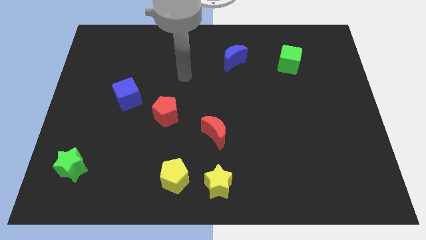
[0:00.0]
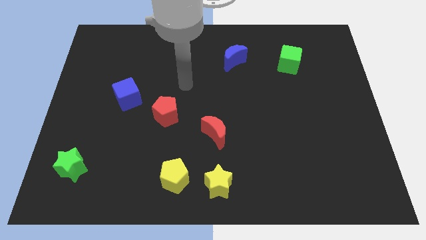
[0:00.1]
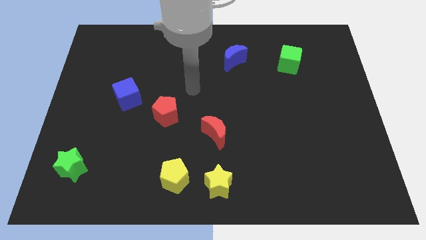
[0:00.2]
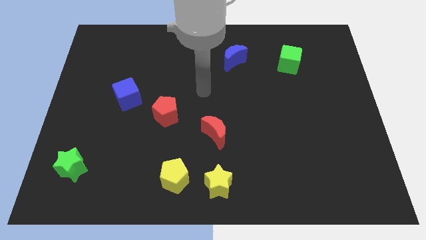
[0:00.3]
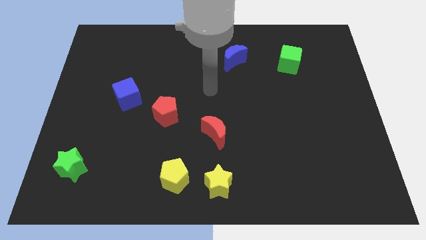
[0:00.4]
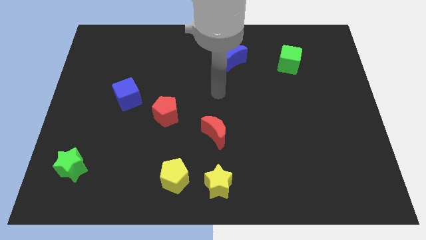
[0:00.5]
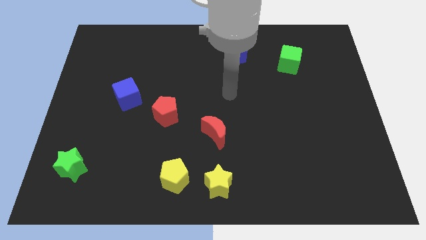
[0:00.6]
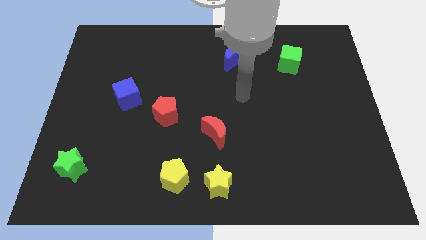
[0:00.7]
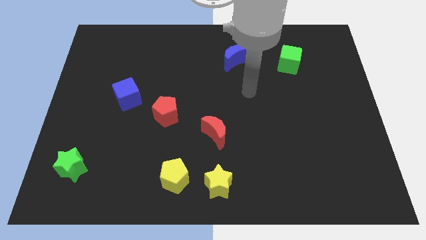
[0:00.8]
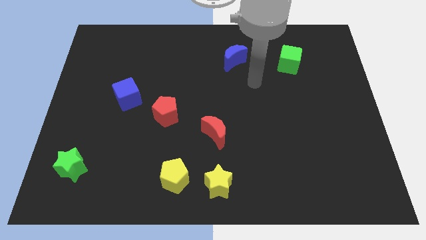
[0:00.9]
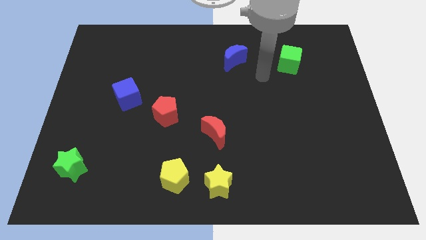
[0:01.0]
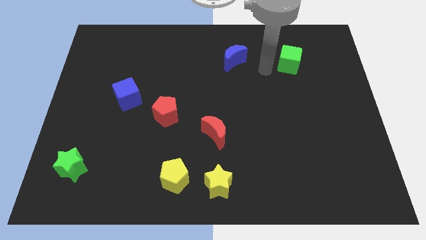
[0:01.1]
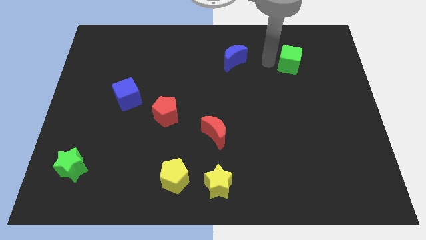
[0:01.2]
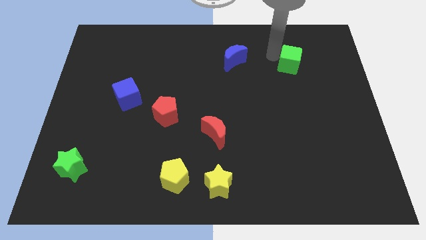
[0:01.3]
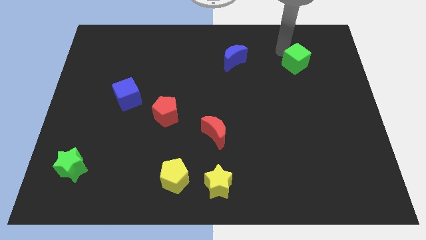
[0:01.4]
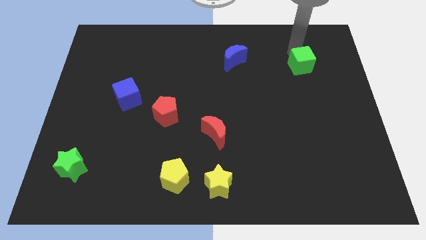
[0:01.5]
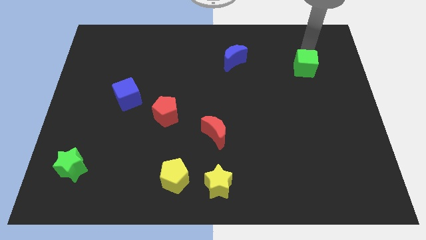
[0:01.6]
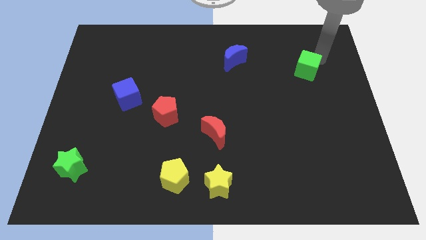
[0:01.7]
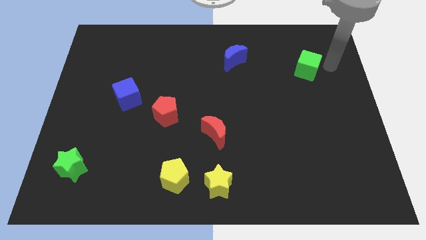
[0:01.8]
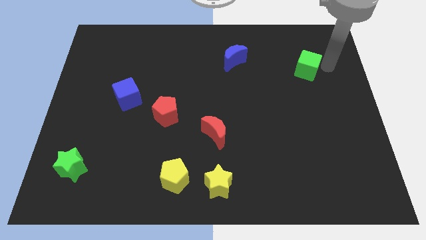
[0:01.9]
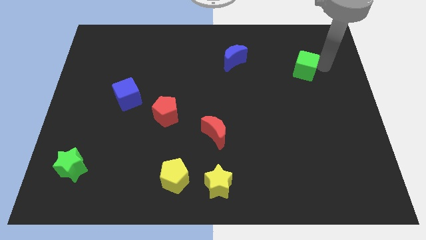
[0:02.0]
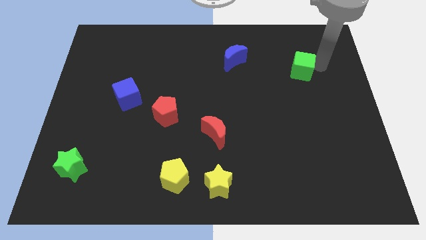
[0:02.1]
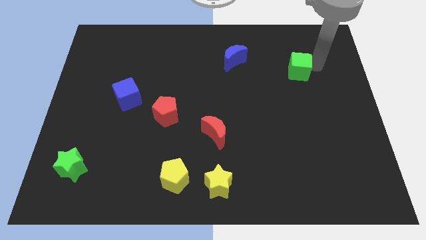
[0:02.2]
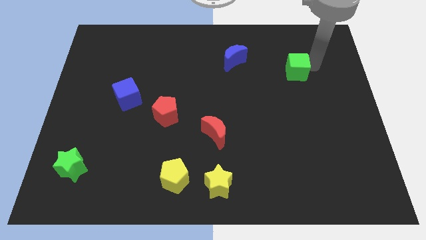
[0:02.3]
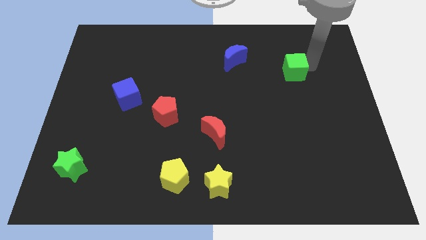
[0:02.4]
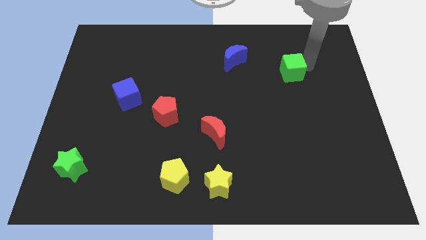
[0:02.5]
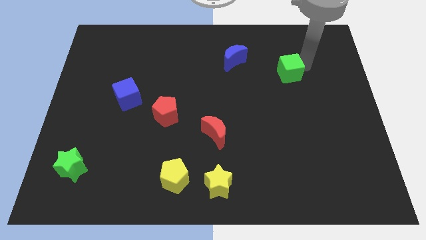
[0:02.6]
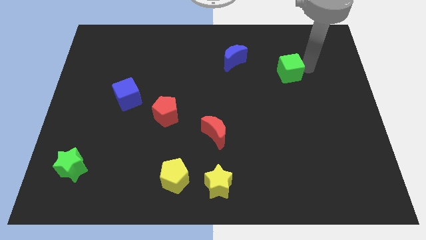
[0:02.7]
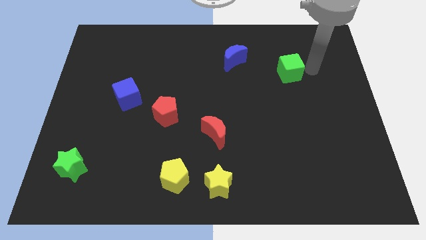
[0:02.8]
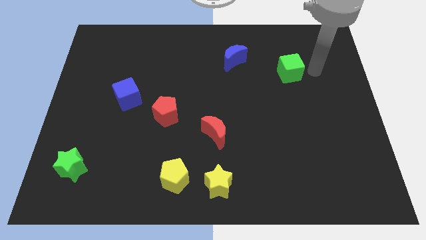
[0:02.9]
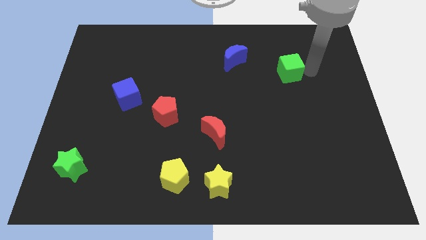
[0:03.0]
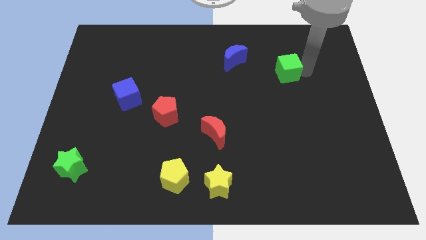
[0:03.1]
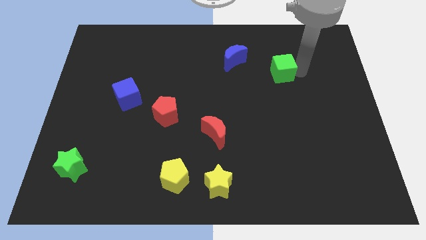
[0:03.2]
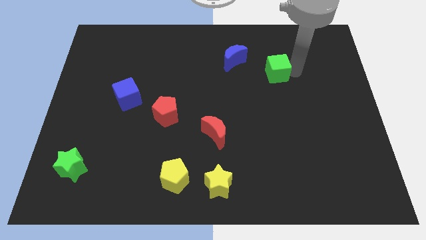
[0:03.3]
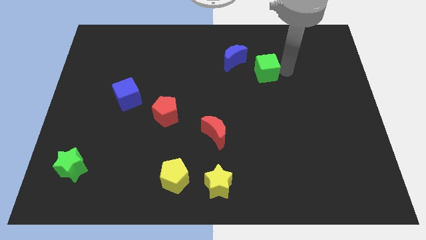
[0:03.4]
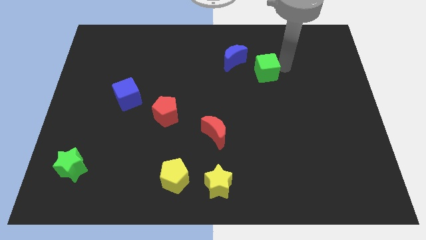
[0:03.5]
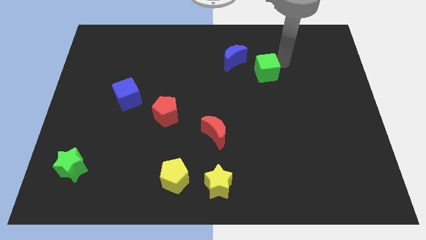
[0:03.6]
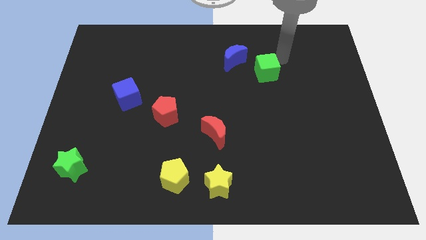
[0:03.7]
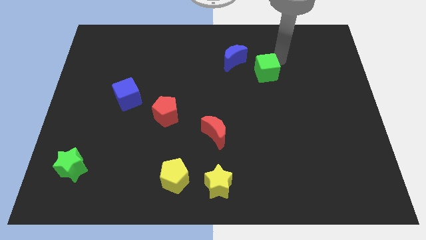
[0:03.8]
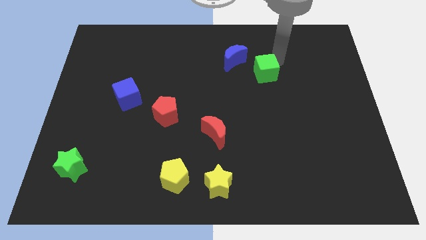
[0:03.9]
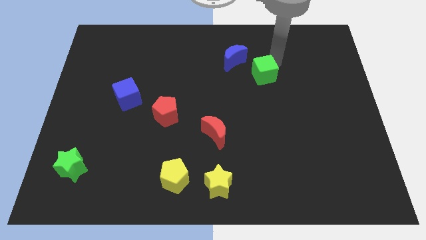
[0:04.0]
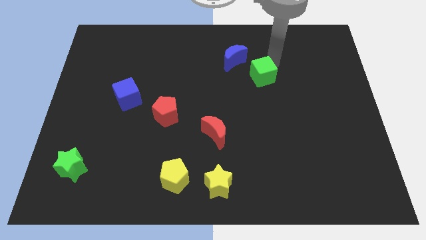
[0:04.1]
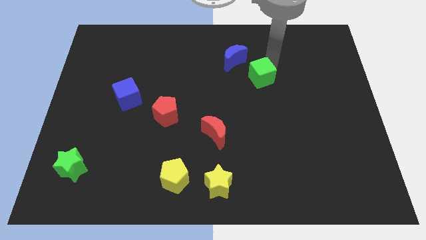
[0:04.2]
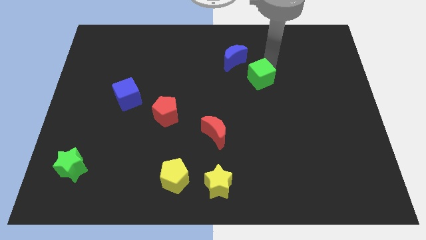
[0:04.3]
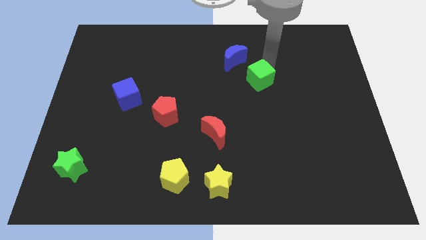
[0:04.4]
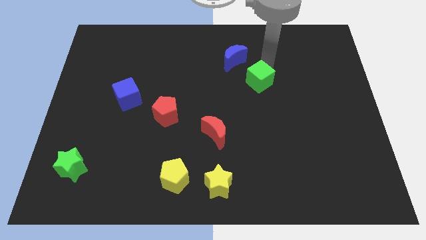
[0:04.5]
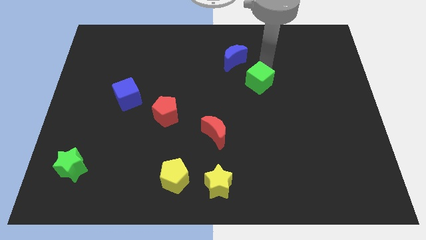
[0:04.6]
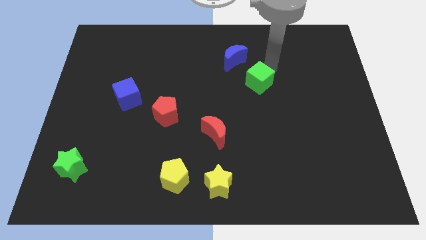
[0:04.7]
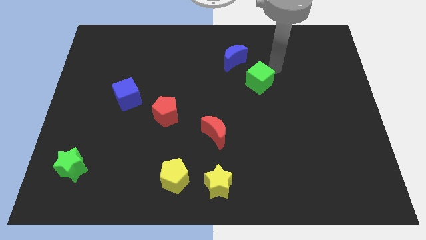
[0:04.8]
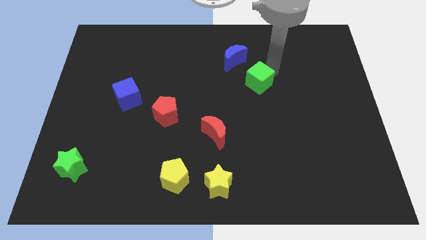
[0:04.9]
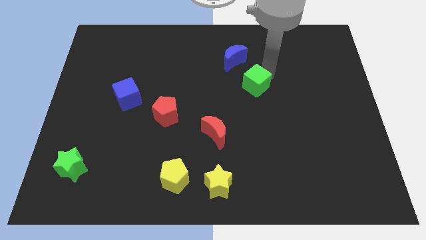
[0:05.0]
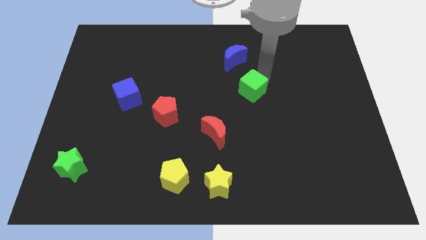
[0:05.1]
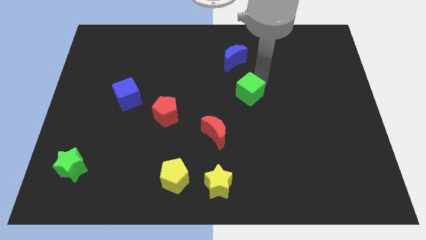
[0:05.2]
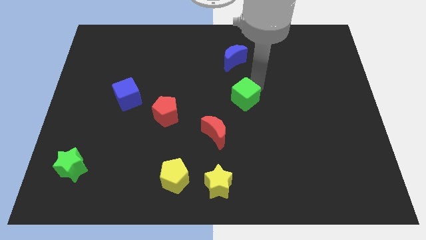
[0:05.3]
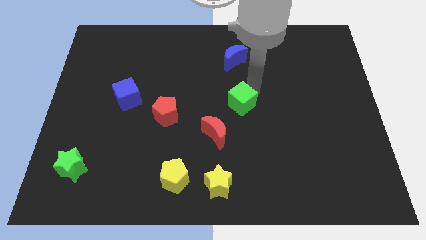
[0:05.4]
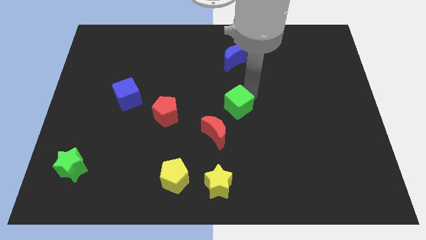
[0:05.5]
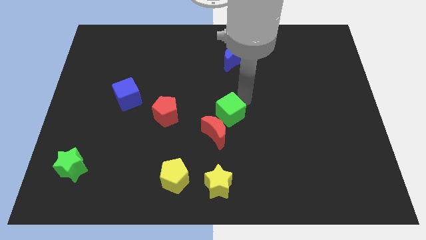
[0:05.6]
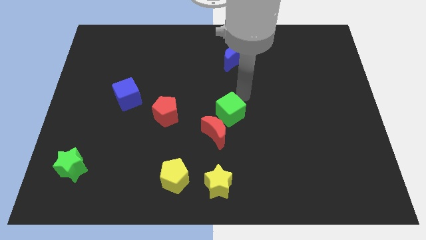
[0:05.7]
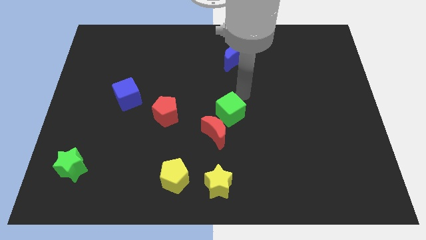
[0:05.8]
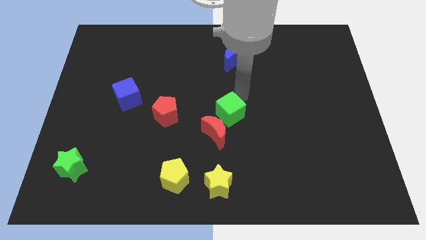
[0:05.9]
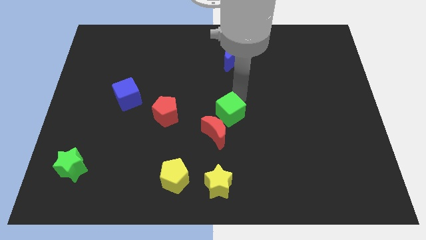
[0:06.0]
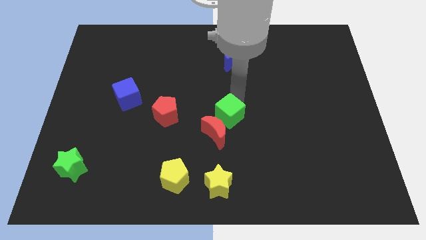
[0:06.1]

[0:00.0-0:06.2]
put the green cube close to the red moon

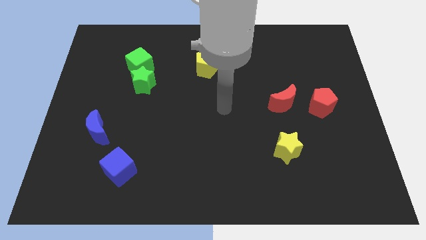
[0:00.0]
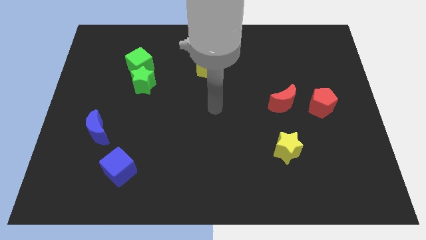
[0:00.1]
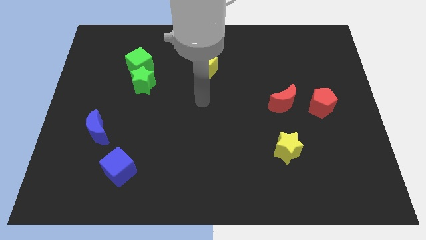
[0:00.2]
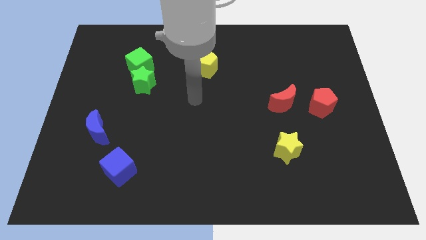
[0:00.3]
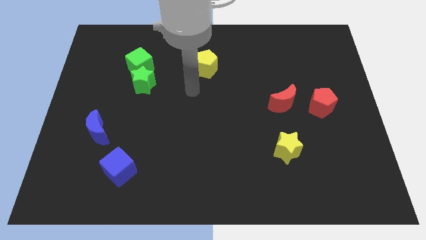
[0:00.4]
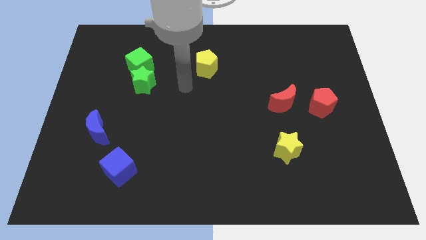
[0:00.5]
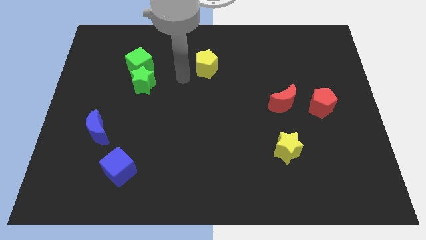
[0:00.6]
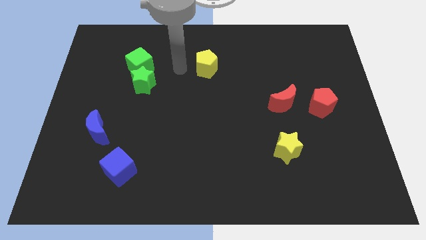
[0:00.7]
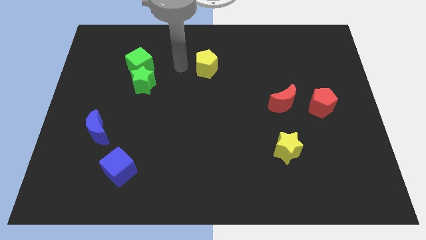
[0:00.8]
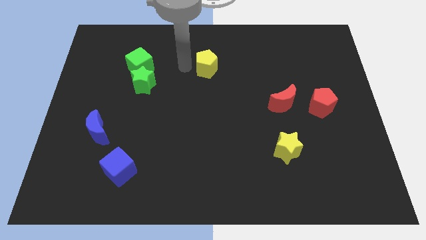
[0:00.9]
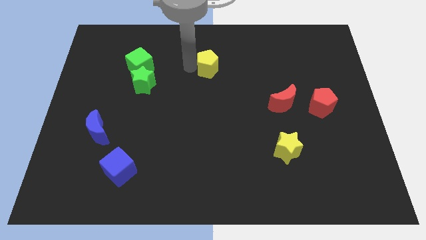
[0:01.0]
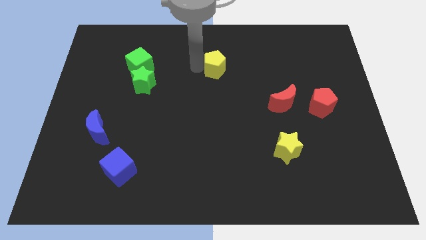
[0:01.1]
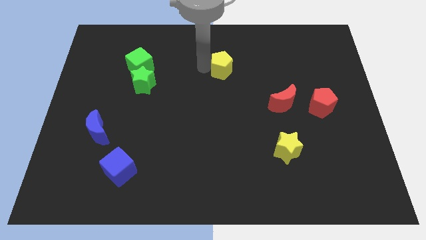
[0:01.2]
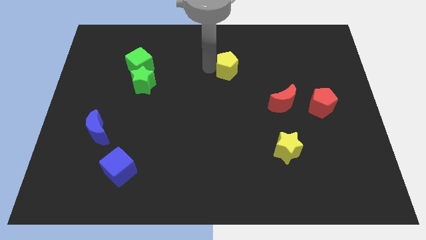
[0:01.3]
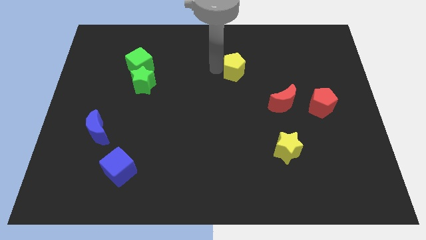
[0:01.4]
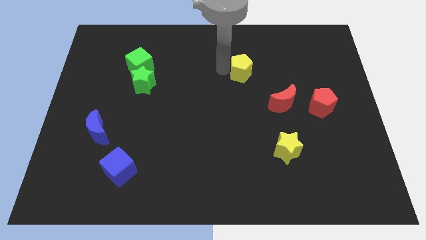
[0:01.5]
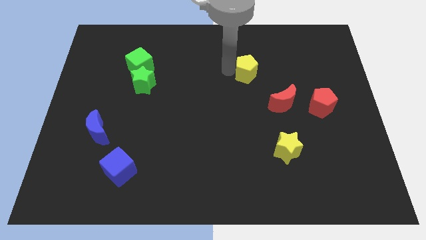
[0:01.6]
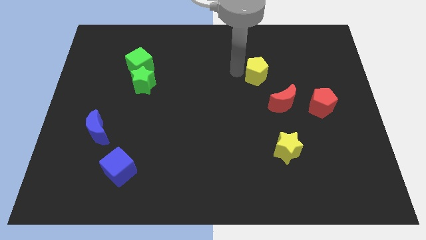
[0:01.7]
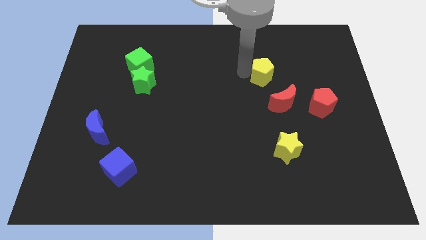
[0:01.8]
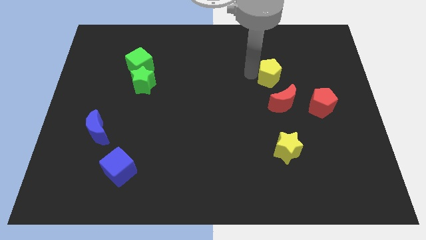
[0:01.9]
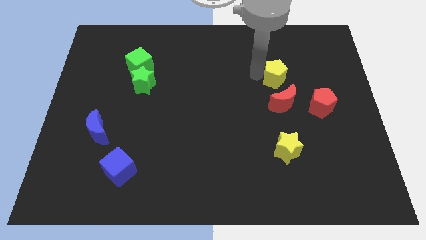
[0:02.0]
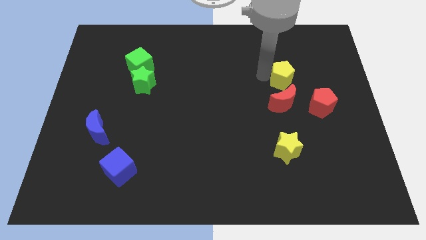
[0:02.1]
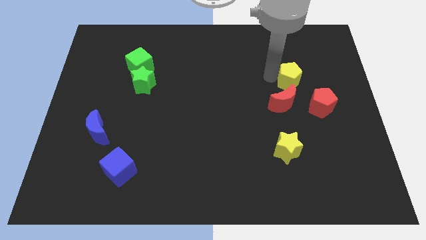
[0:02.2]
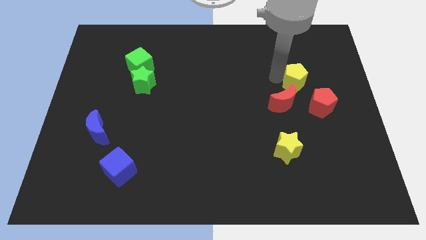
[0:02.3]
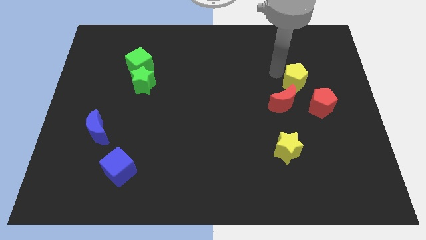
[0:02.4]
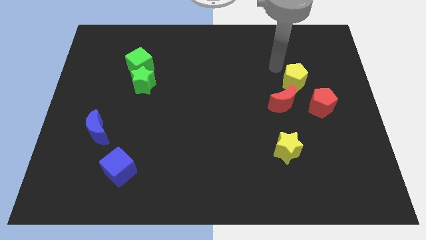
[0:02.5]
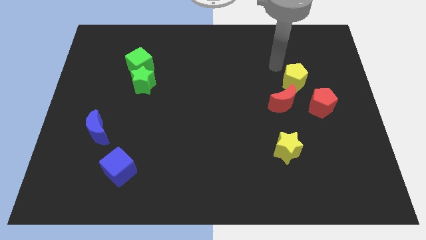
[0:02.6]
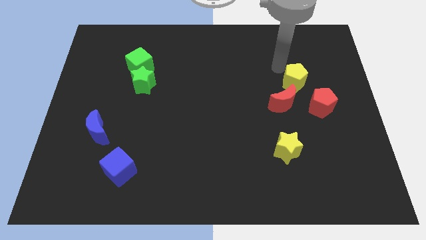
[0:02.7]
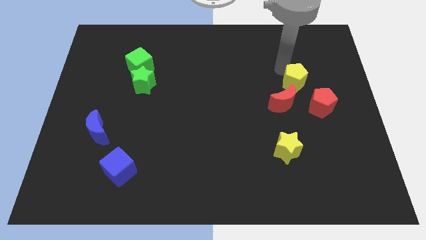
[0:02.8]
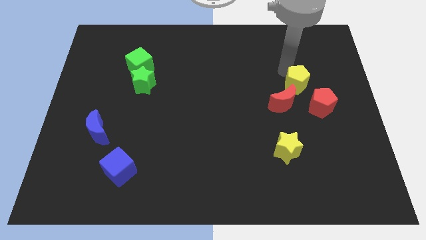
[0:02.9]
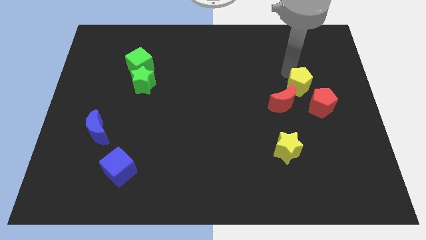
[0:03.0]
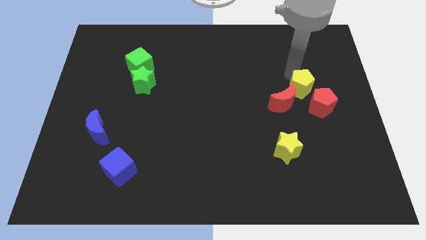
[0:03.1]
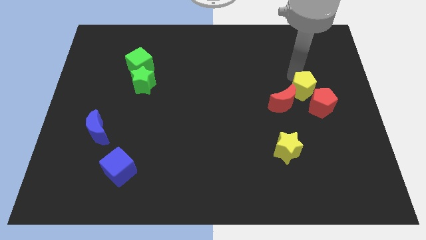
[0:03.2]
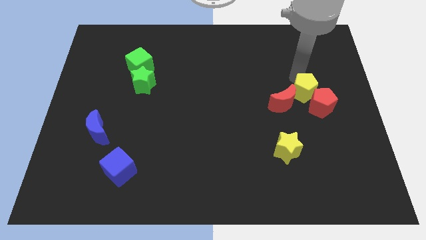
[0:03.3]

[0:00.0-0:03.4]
slide the yellow pentagon towards the red pentagon
